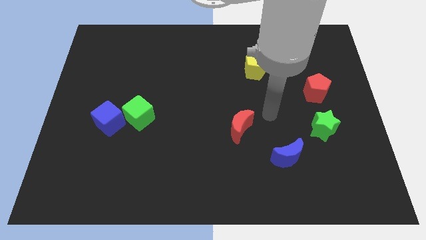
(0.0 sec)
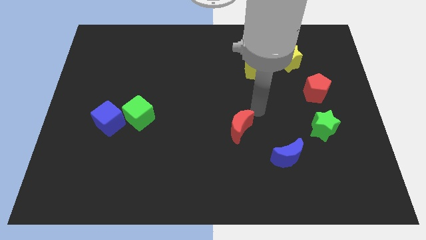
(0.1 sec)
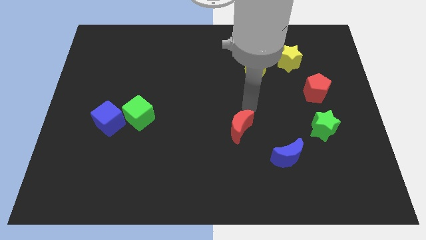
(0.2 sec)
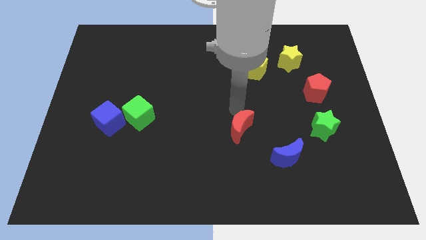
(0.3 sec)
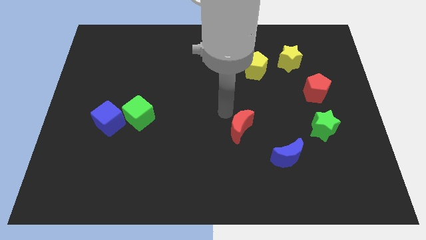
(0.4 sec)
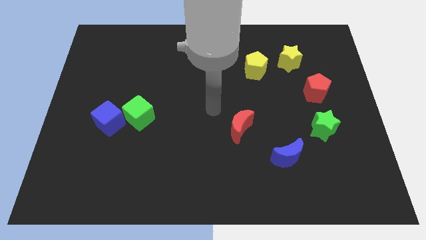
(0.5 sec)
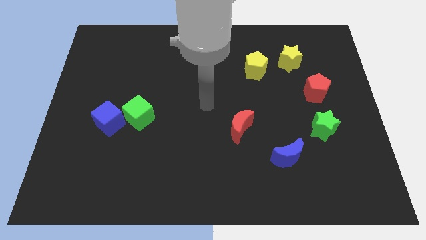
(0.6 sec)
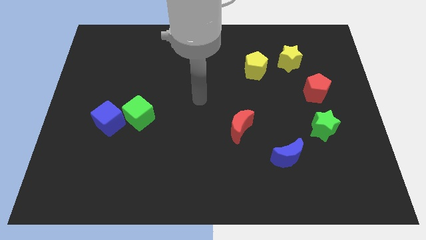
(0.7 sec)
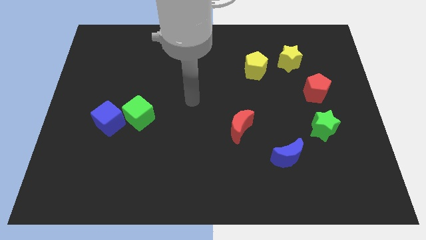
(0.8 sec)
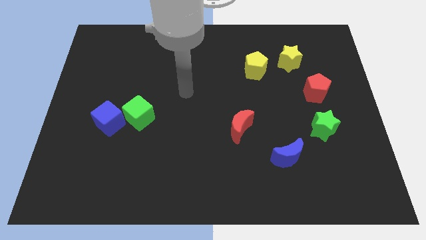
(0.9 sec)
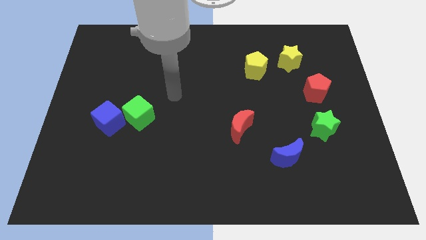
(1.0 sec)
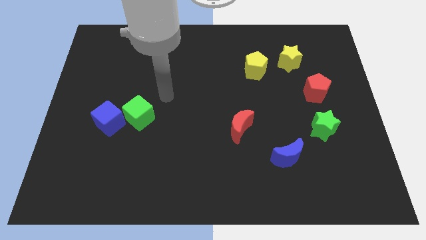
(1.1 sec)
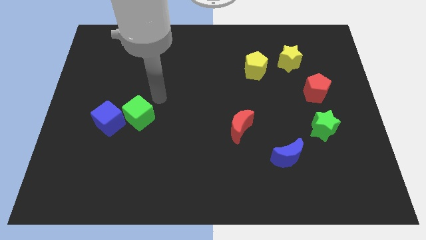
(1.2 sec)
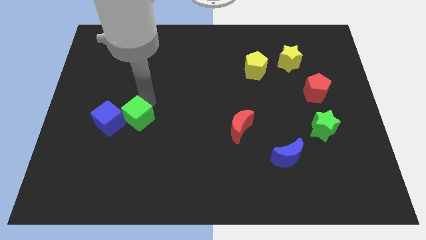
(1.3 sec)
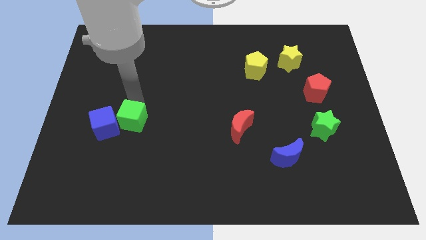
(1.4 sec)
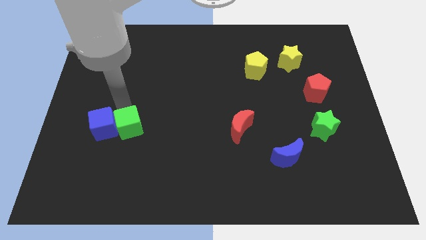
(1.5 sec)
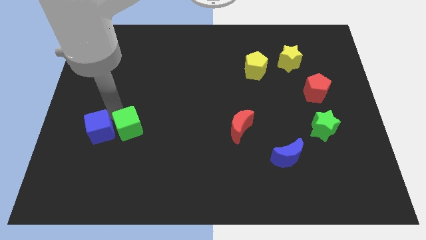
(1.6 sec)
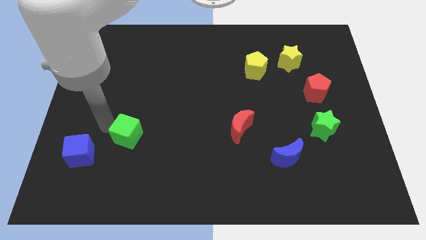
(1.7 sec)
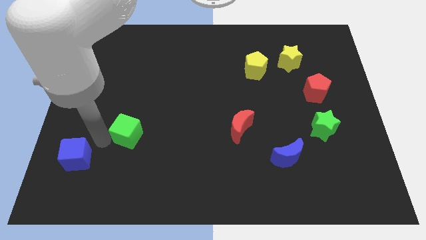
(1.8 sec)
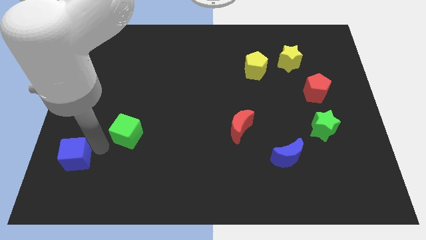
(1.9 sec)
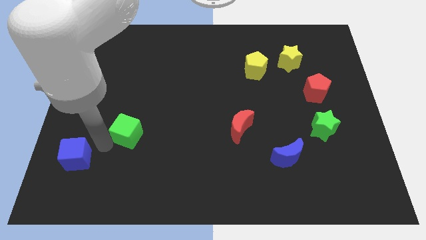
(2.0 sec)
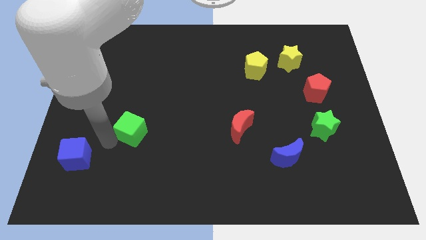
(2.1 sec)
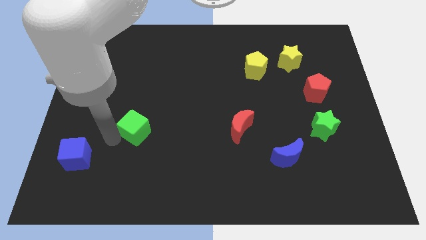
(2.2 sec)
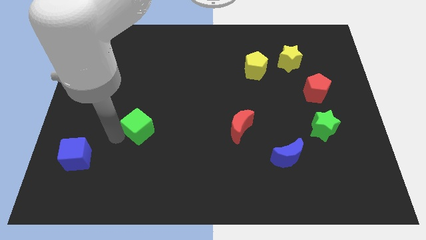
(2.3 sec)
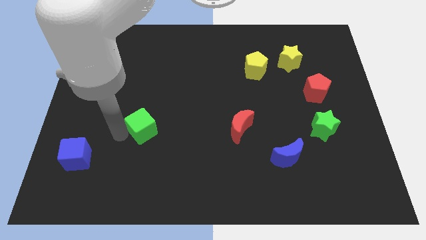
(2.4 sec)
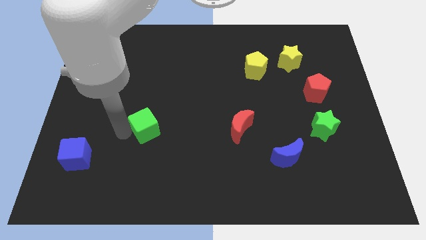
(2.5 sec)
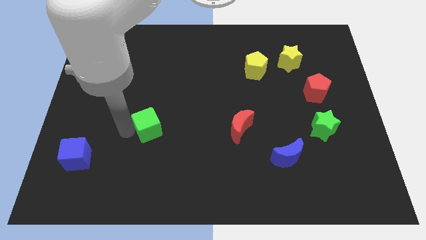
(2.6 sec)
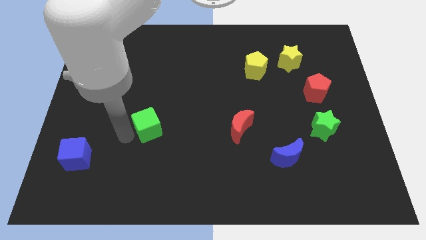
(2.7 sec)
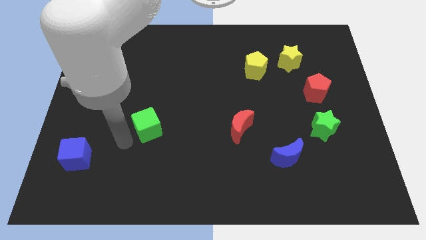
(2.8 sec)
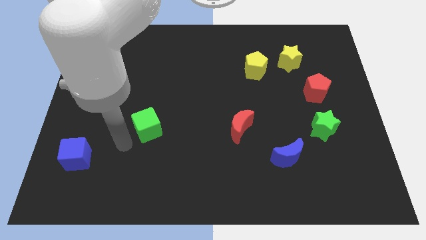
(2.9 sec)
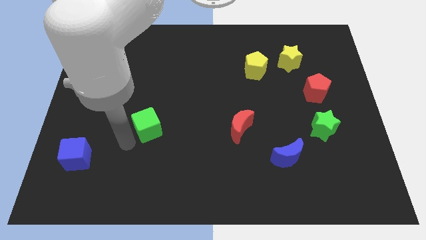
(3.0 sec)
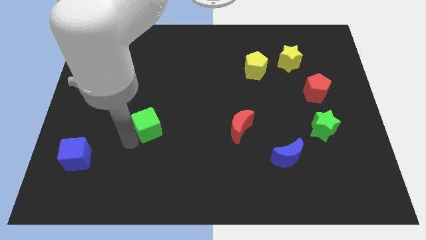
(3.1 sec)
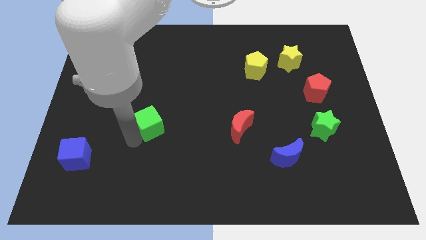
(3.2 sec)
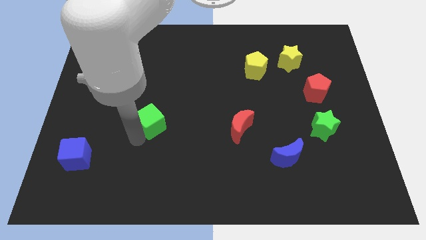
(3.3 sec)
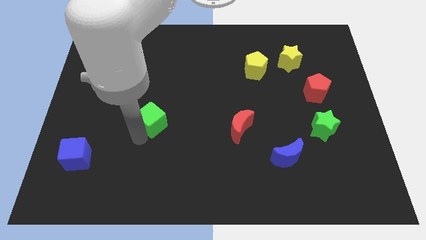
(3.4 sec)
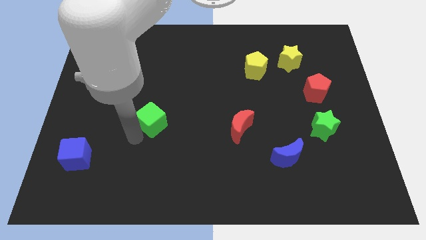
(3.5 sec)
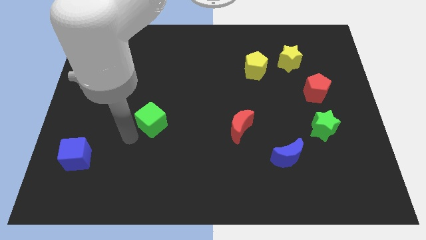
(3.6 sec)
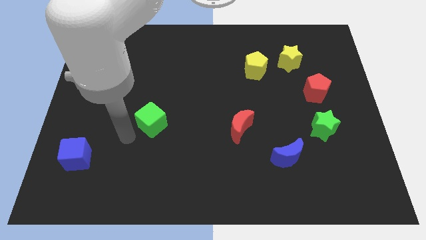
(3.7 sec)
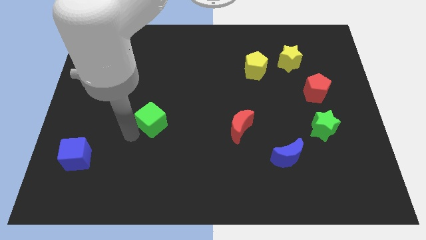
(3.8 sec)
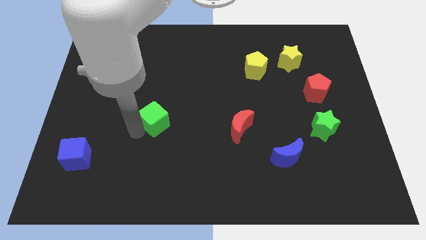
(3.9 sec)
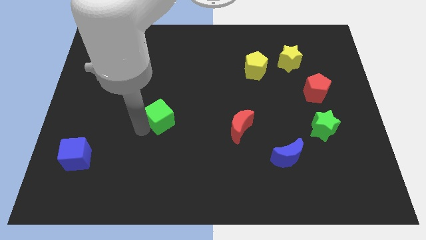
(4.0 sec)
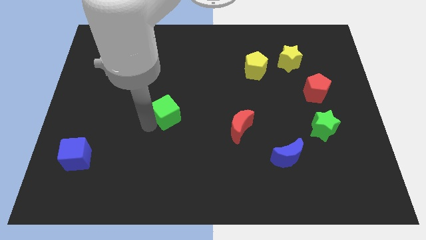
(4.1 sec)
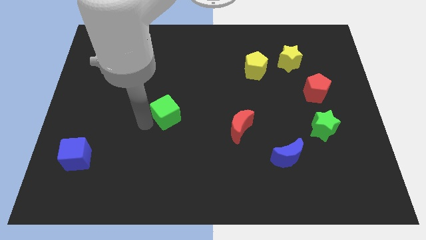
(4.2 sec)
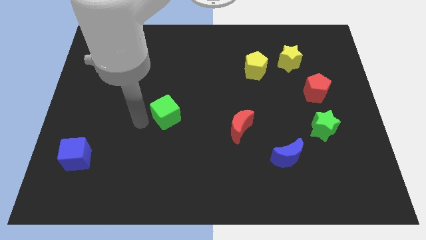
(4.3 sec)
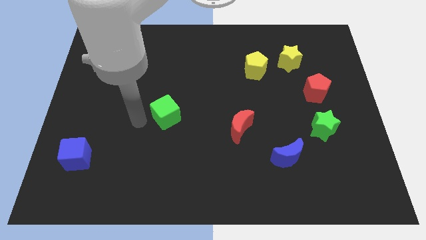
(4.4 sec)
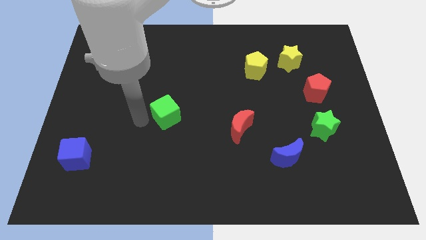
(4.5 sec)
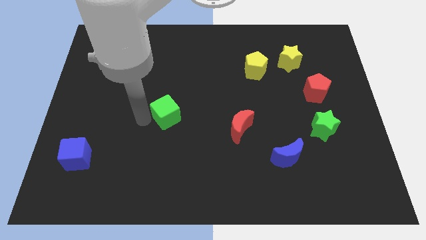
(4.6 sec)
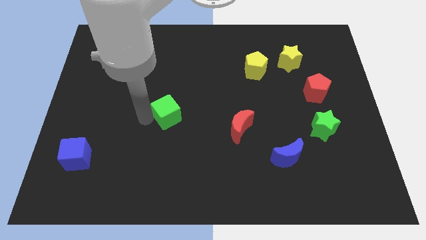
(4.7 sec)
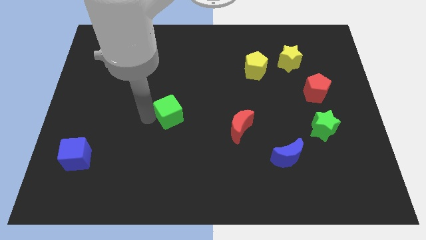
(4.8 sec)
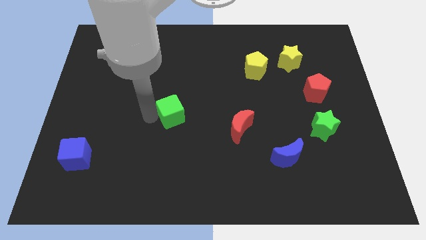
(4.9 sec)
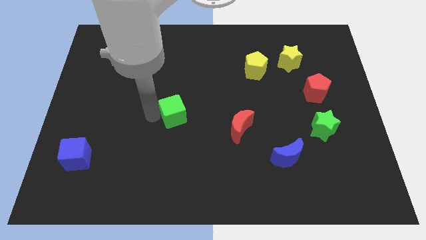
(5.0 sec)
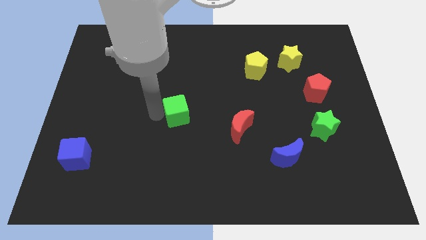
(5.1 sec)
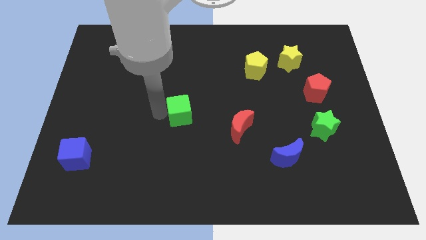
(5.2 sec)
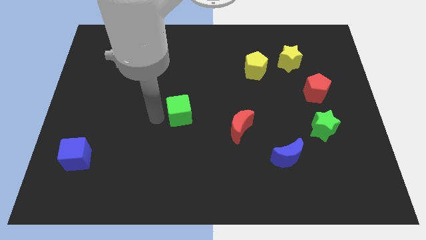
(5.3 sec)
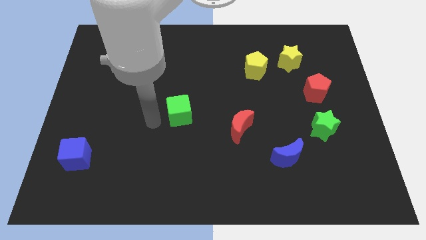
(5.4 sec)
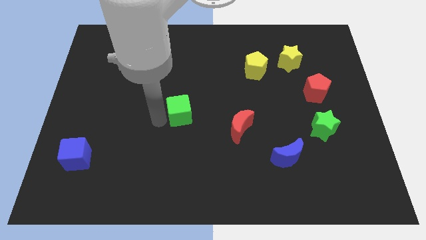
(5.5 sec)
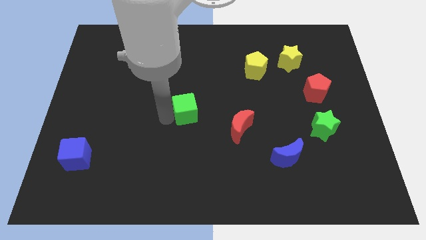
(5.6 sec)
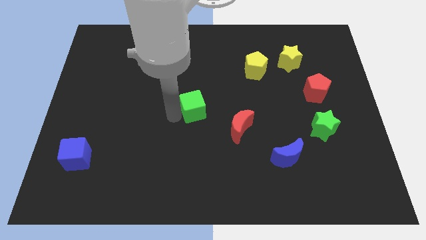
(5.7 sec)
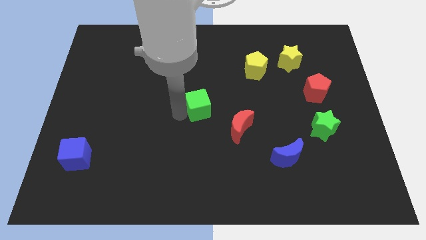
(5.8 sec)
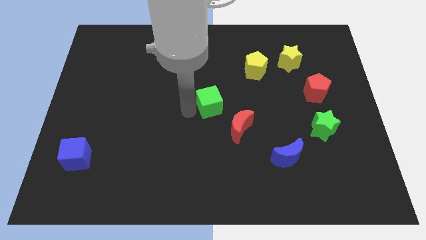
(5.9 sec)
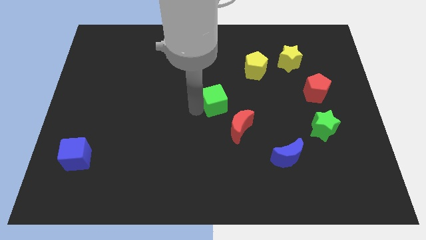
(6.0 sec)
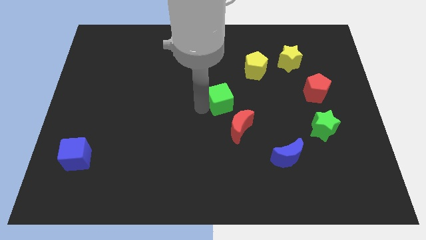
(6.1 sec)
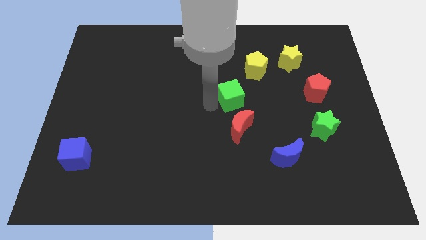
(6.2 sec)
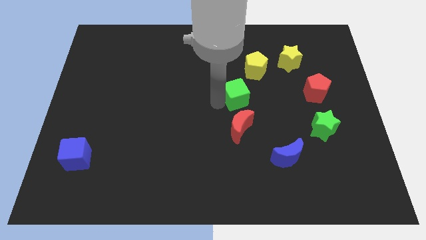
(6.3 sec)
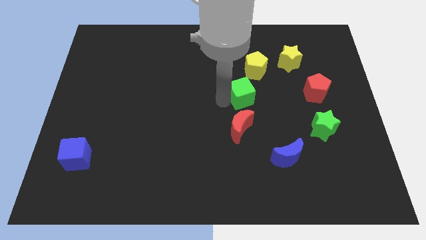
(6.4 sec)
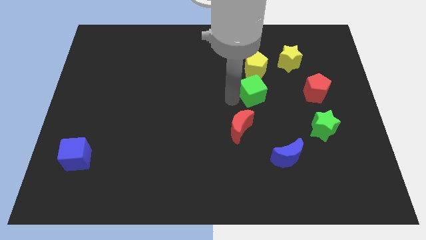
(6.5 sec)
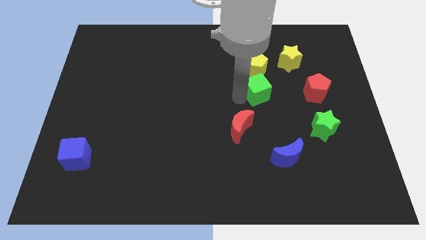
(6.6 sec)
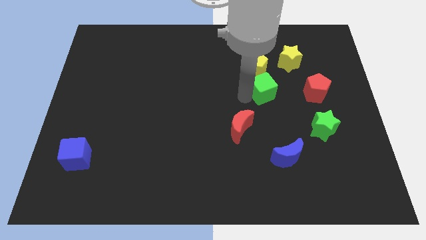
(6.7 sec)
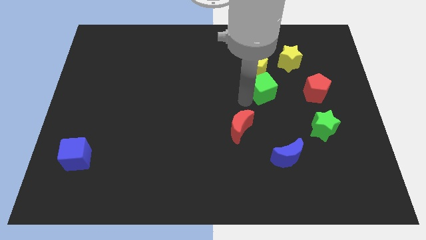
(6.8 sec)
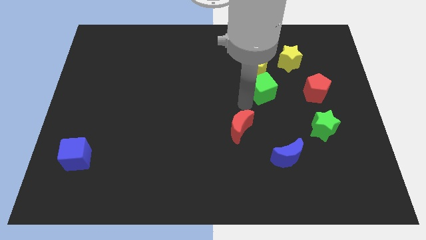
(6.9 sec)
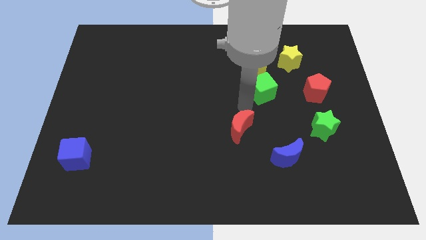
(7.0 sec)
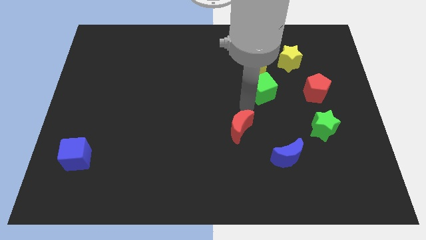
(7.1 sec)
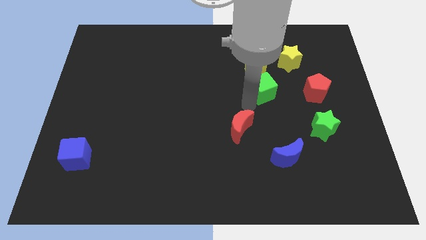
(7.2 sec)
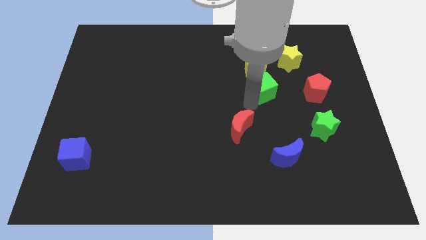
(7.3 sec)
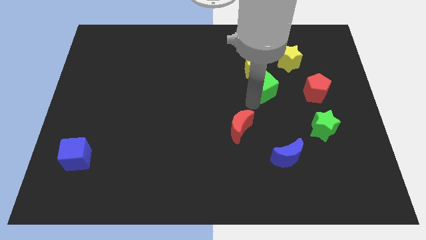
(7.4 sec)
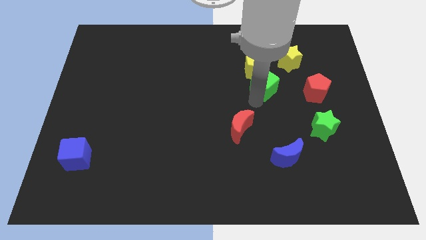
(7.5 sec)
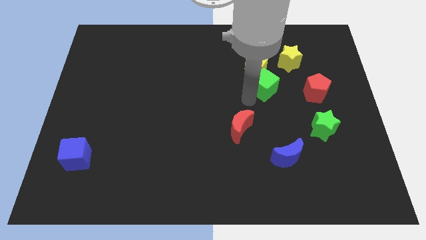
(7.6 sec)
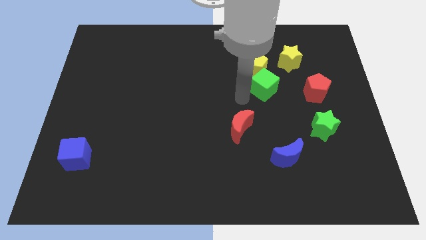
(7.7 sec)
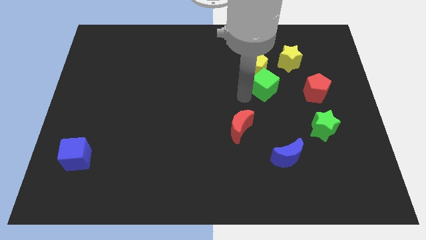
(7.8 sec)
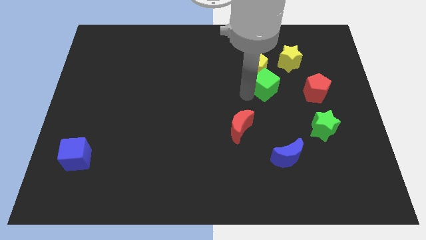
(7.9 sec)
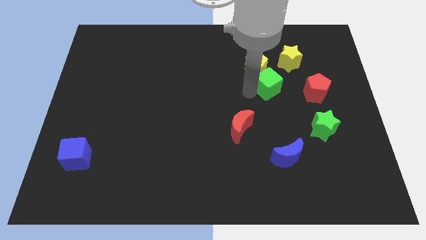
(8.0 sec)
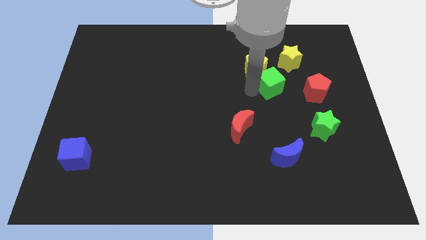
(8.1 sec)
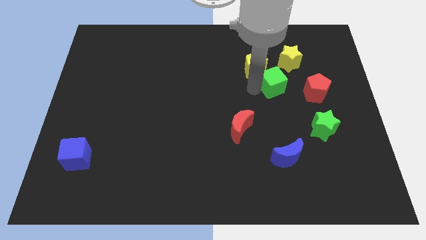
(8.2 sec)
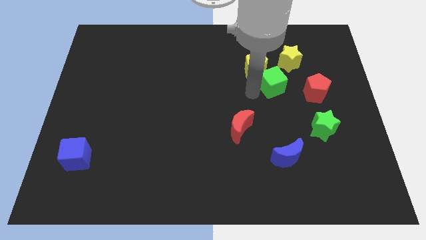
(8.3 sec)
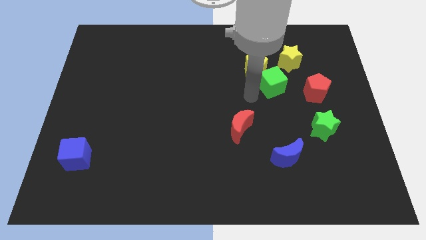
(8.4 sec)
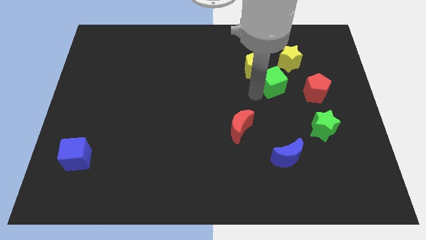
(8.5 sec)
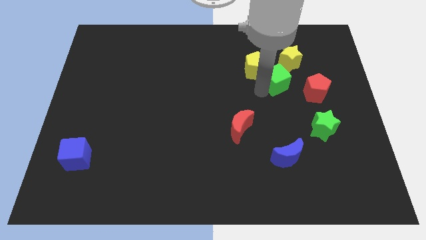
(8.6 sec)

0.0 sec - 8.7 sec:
slide the green cube diagonally up and to the left of the red pentagon
